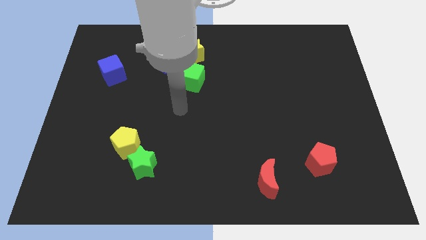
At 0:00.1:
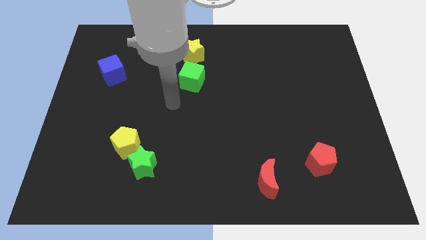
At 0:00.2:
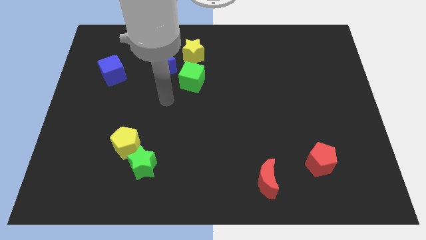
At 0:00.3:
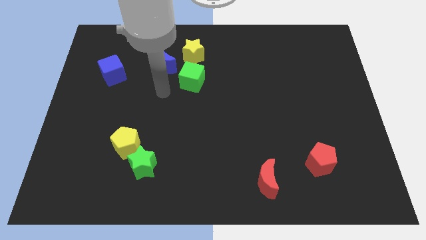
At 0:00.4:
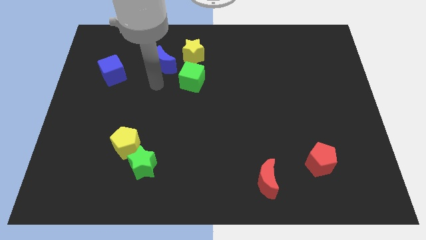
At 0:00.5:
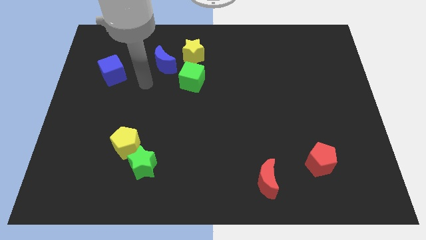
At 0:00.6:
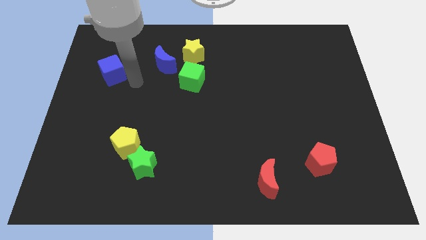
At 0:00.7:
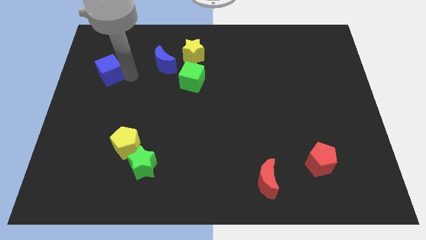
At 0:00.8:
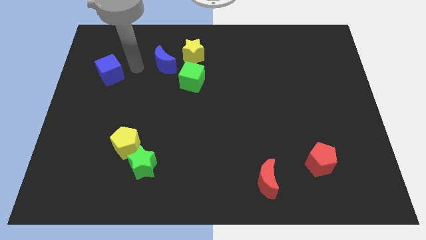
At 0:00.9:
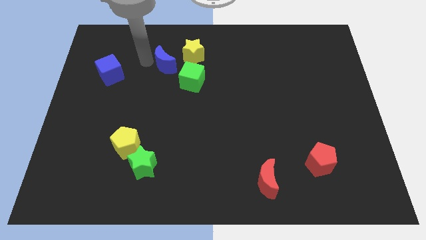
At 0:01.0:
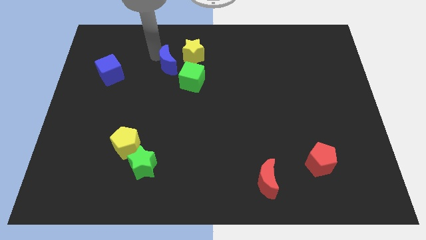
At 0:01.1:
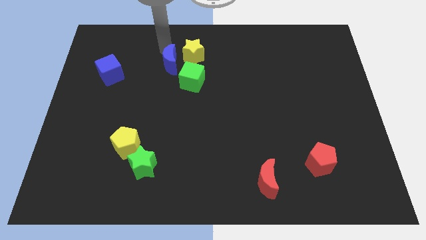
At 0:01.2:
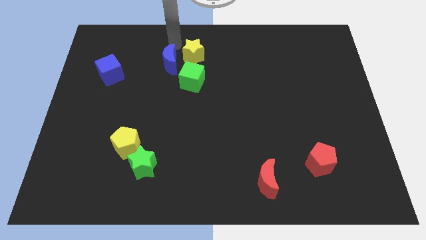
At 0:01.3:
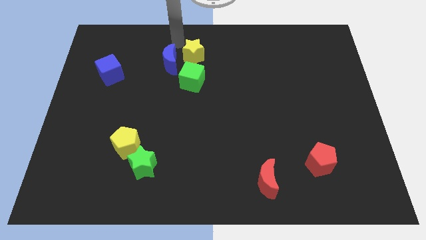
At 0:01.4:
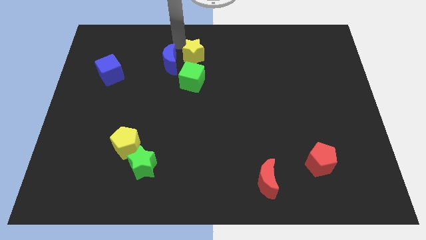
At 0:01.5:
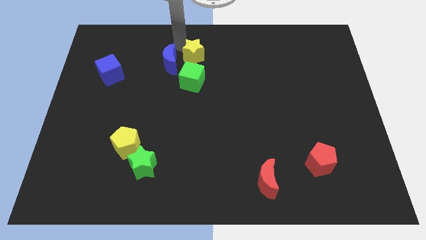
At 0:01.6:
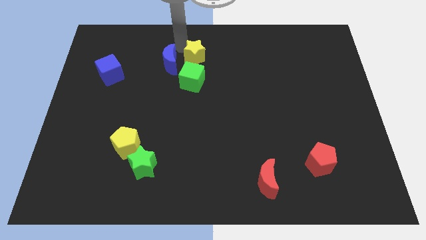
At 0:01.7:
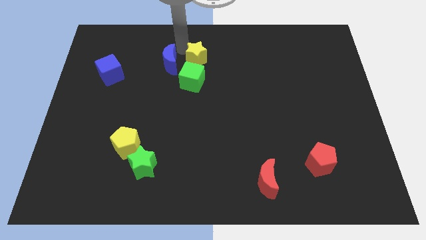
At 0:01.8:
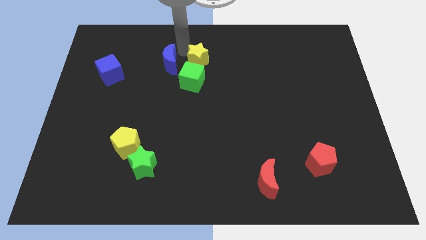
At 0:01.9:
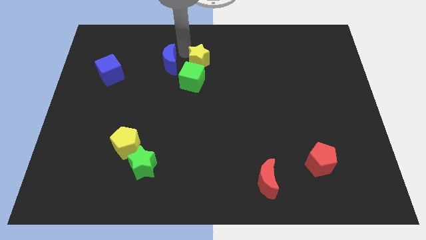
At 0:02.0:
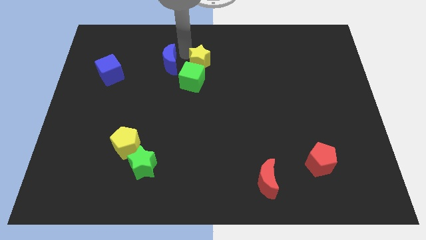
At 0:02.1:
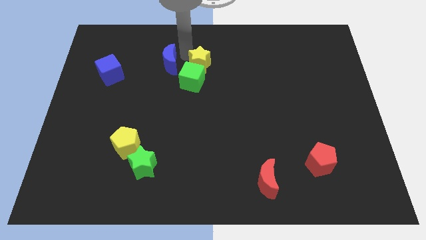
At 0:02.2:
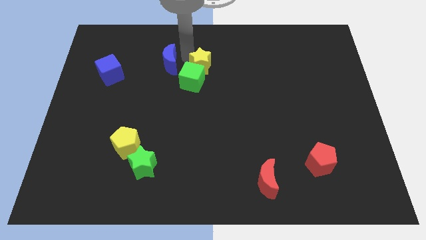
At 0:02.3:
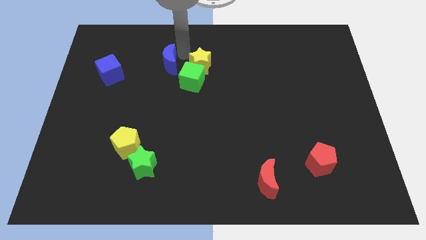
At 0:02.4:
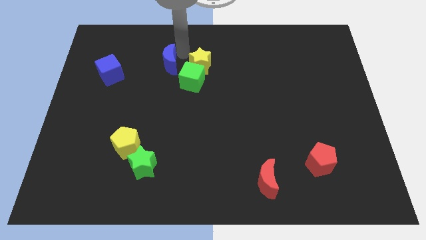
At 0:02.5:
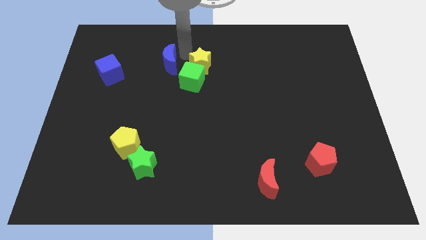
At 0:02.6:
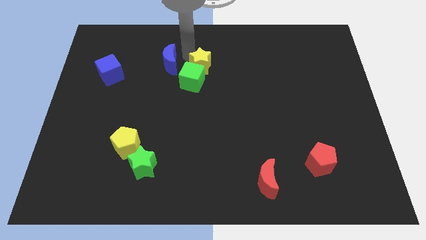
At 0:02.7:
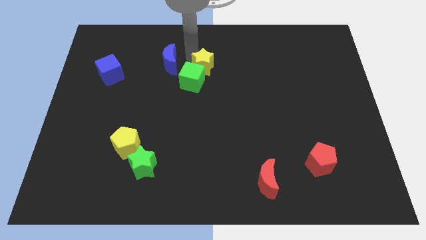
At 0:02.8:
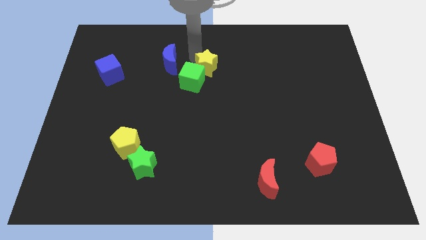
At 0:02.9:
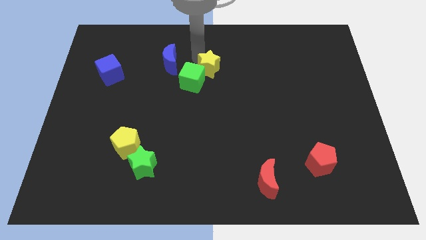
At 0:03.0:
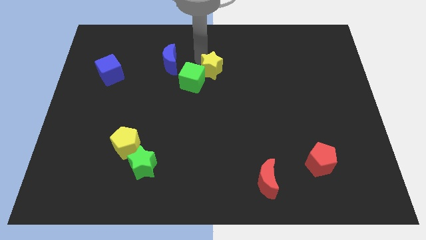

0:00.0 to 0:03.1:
slide the yellow star down and then to the right slightly

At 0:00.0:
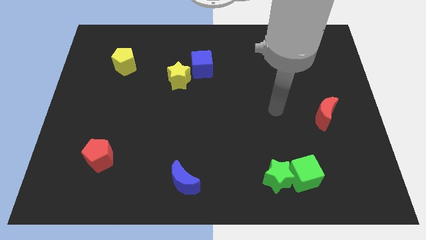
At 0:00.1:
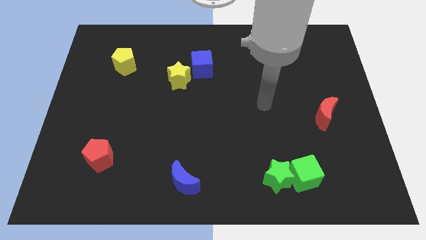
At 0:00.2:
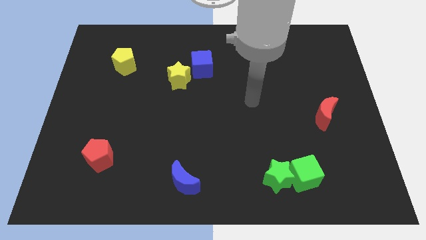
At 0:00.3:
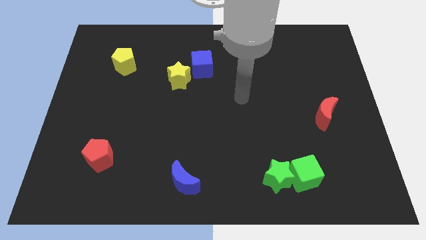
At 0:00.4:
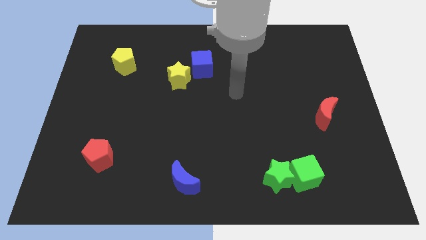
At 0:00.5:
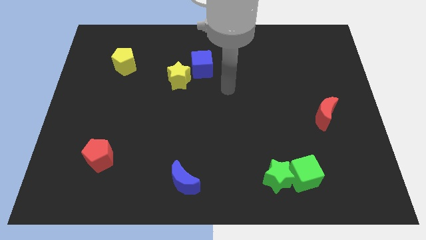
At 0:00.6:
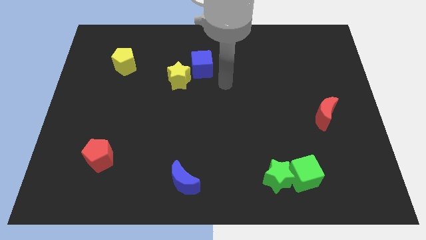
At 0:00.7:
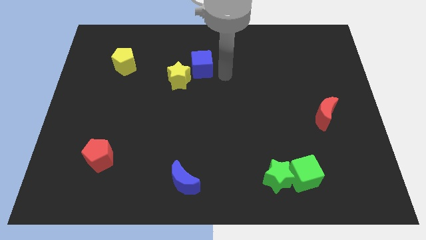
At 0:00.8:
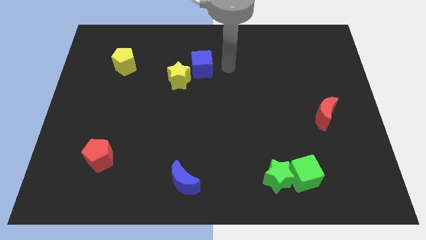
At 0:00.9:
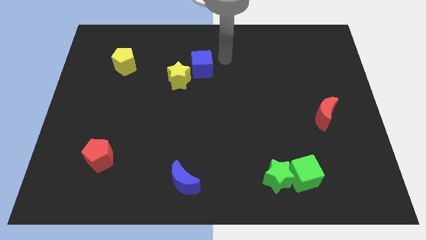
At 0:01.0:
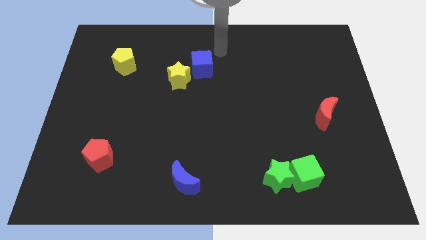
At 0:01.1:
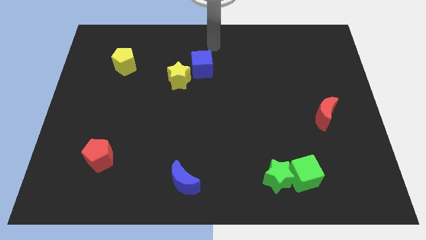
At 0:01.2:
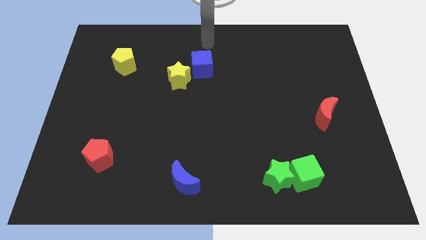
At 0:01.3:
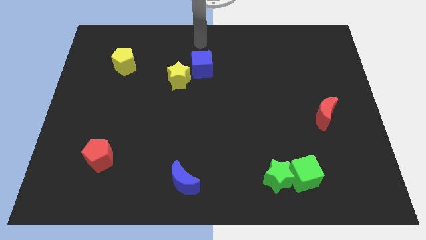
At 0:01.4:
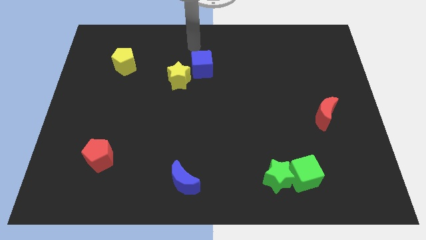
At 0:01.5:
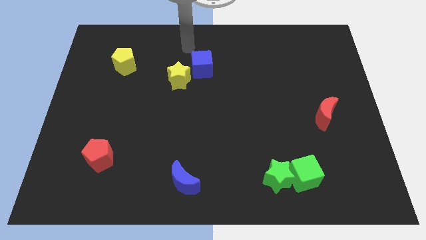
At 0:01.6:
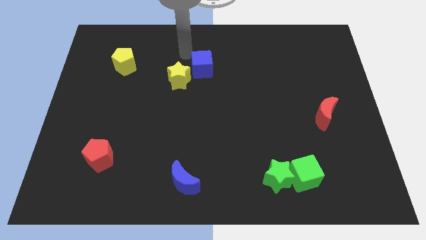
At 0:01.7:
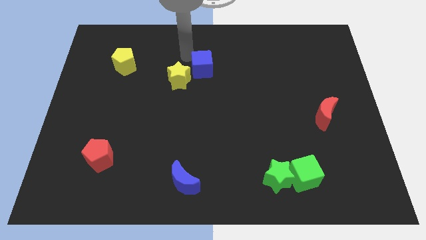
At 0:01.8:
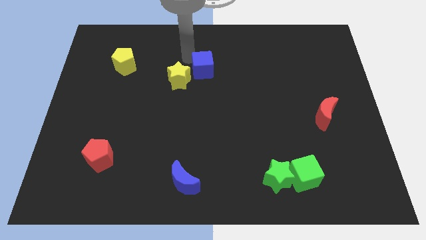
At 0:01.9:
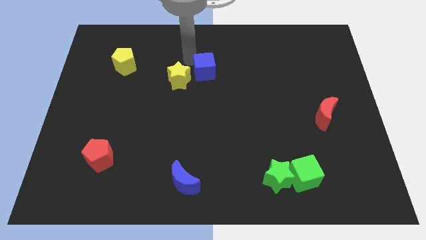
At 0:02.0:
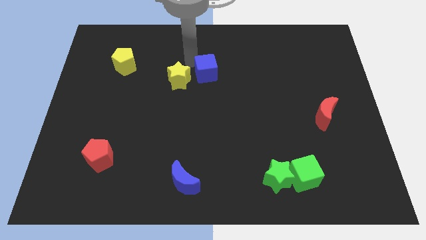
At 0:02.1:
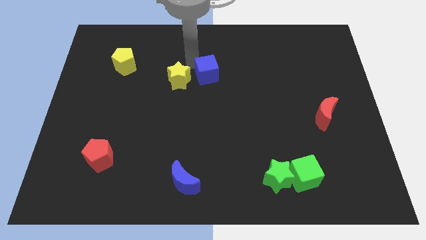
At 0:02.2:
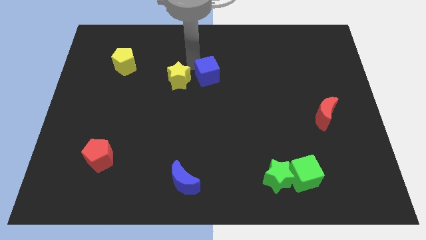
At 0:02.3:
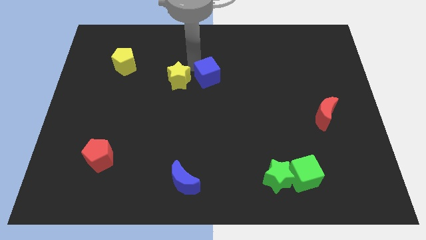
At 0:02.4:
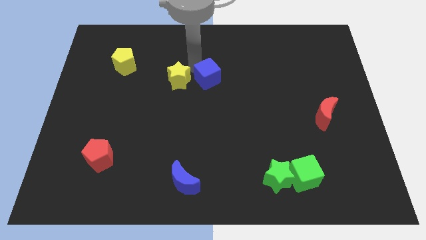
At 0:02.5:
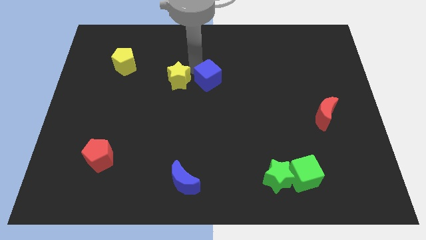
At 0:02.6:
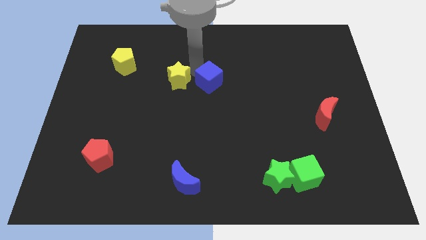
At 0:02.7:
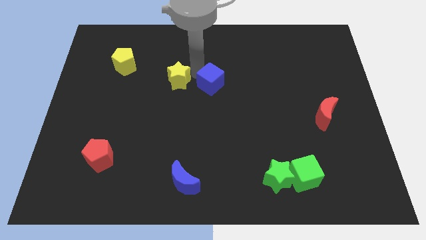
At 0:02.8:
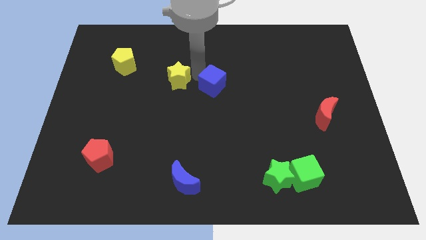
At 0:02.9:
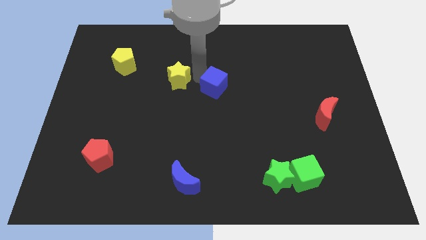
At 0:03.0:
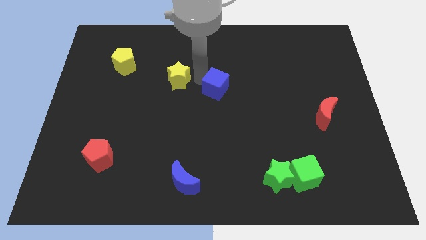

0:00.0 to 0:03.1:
slide the blue cube a little bit downwards and then to the right

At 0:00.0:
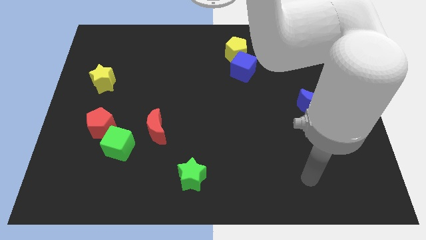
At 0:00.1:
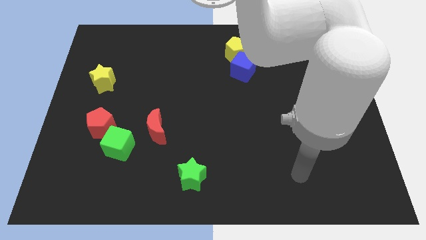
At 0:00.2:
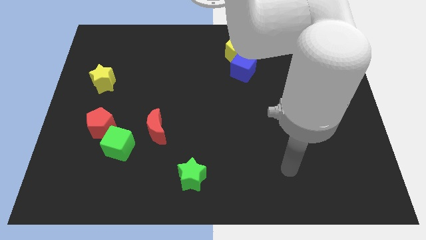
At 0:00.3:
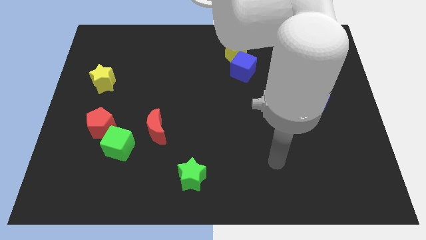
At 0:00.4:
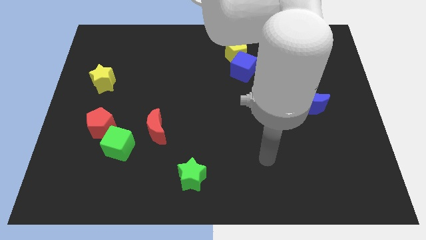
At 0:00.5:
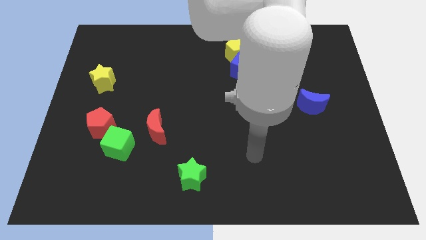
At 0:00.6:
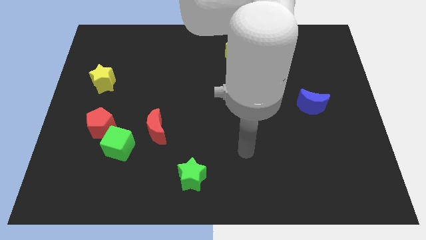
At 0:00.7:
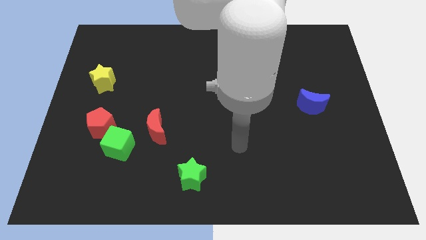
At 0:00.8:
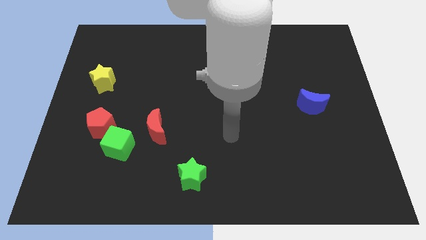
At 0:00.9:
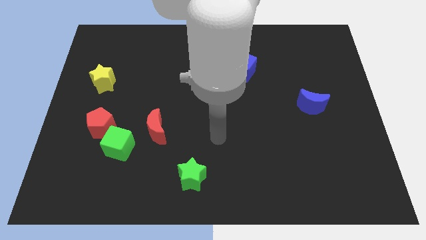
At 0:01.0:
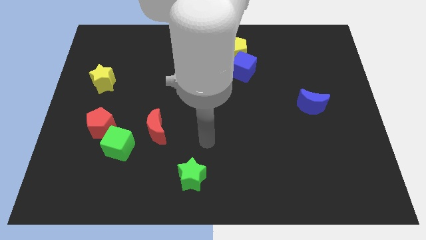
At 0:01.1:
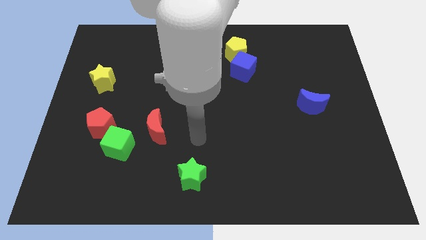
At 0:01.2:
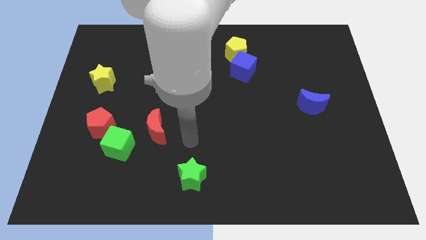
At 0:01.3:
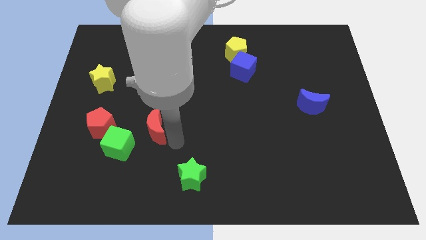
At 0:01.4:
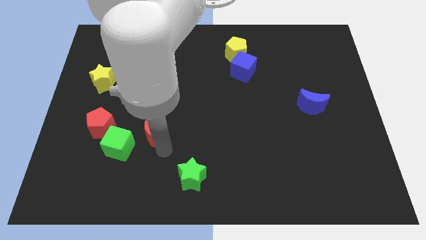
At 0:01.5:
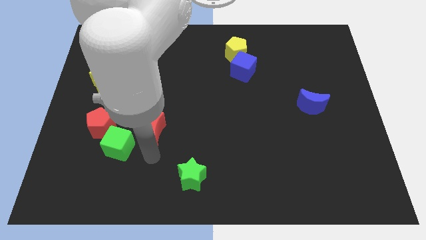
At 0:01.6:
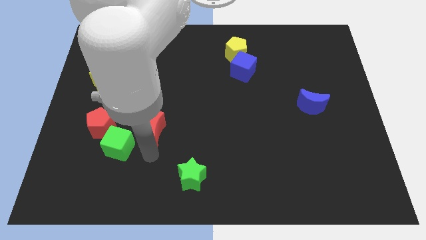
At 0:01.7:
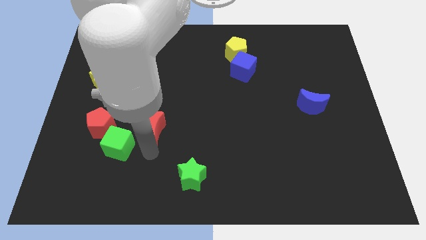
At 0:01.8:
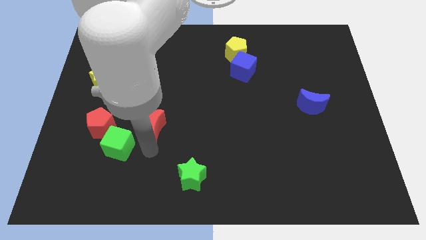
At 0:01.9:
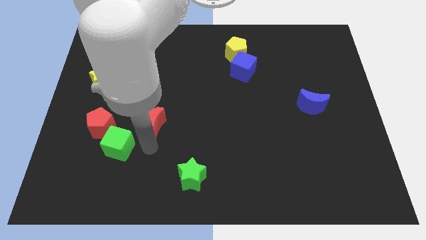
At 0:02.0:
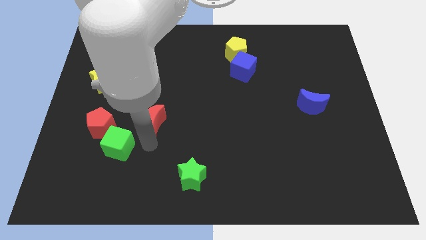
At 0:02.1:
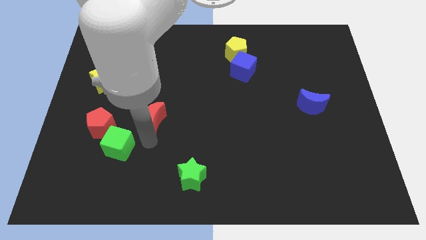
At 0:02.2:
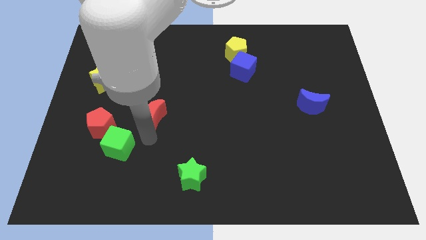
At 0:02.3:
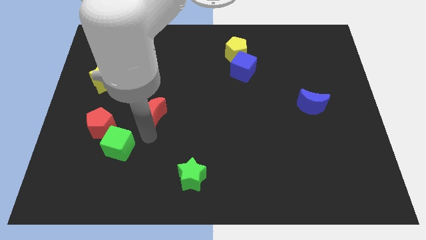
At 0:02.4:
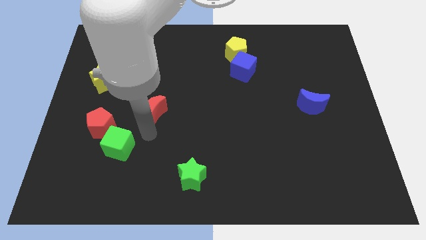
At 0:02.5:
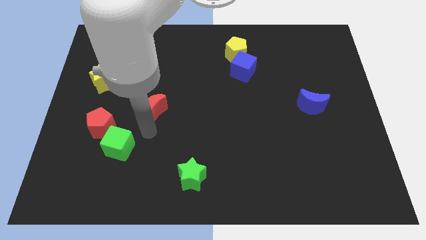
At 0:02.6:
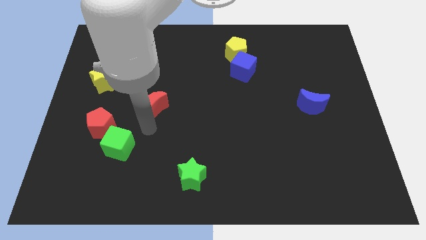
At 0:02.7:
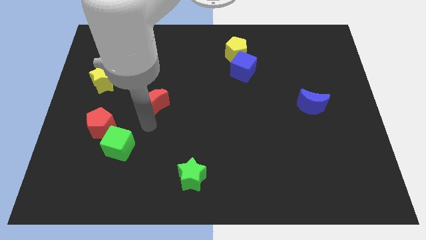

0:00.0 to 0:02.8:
slightly slide the red moon upwards
